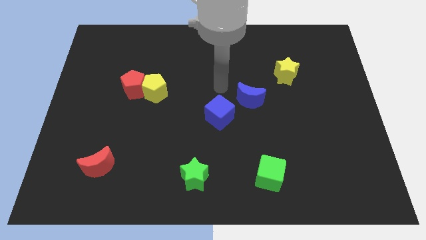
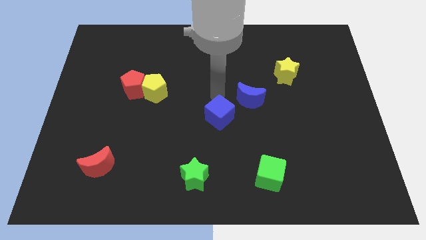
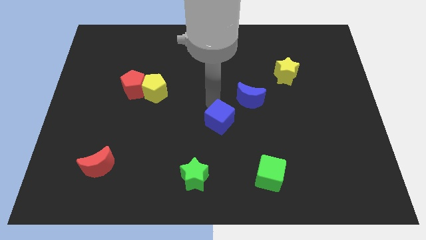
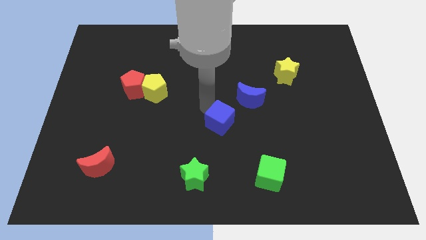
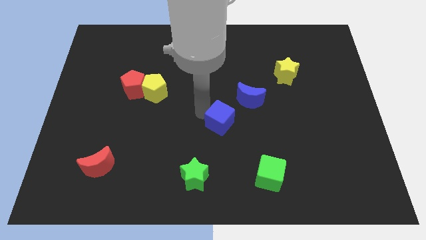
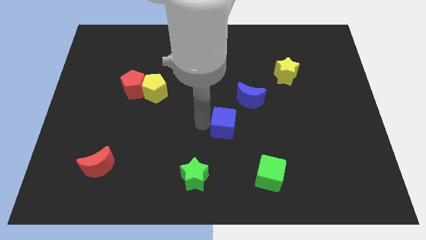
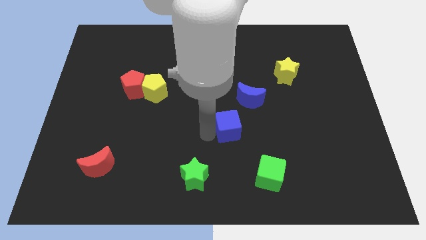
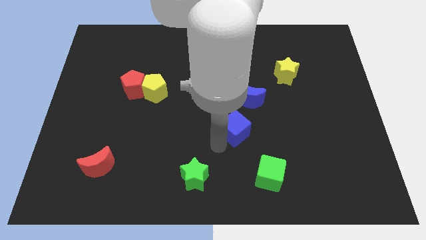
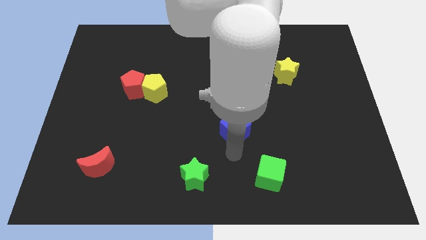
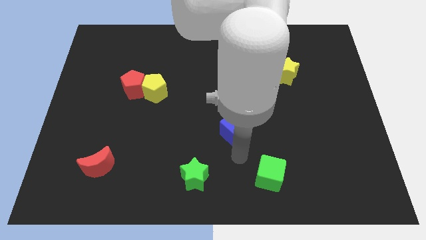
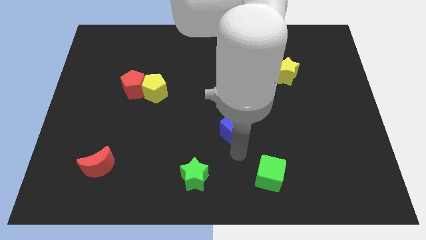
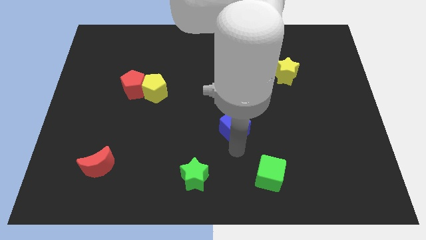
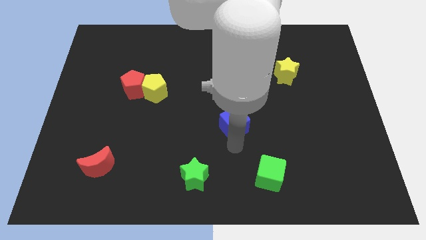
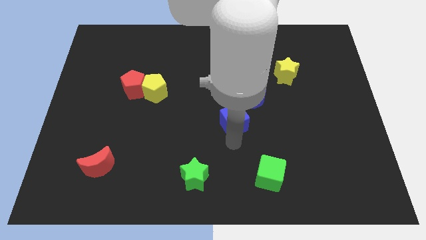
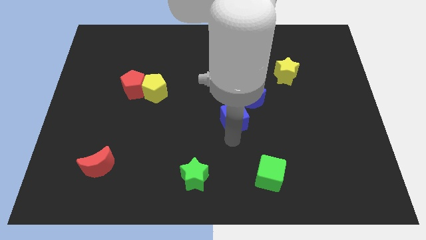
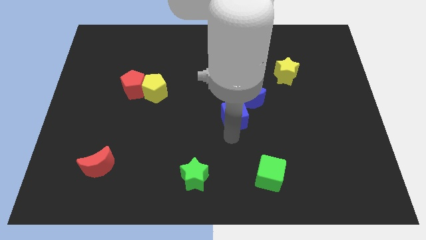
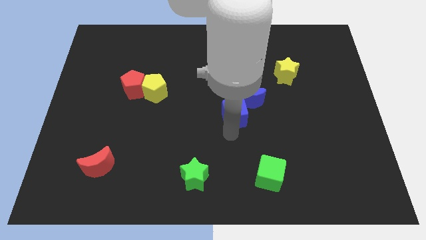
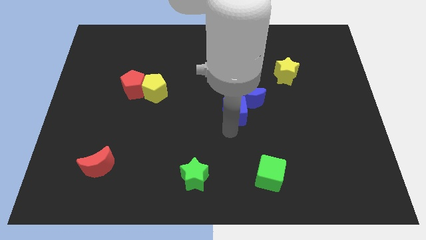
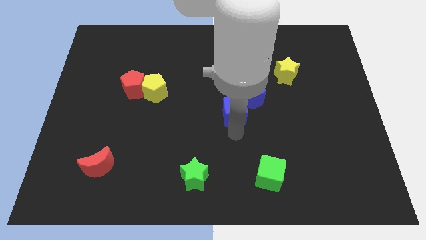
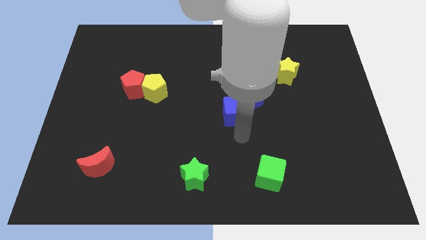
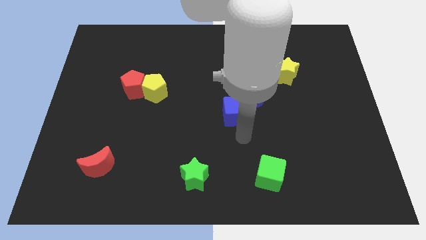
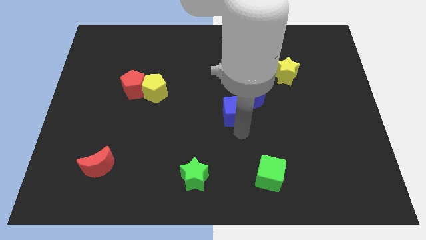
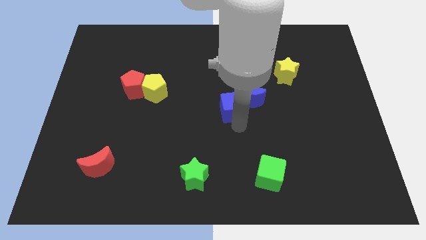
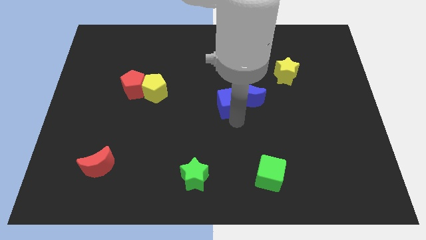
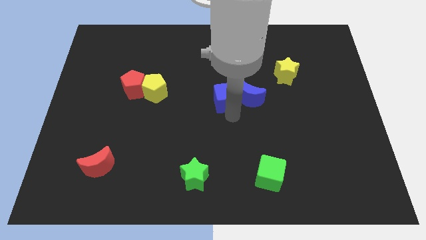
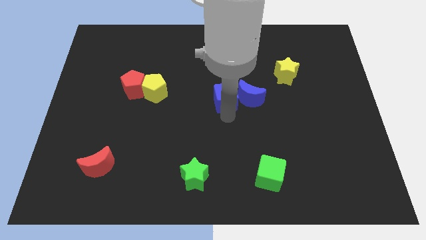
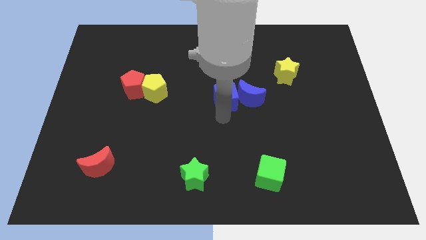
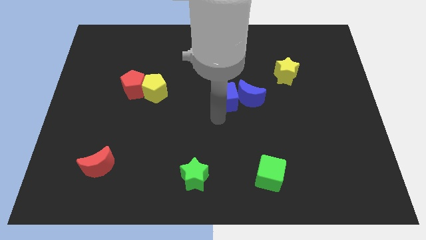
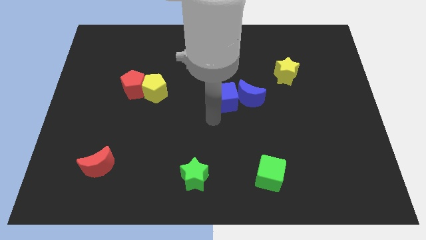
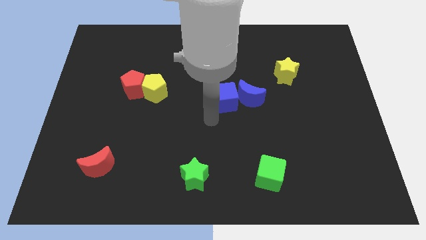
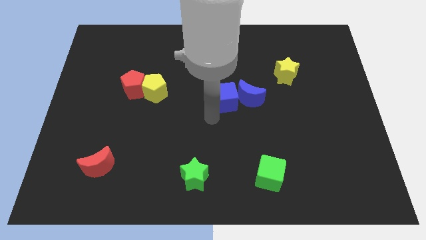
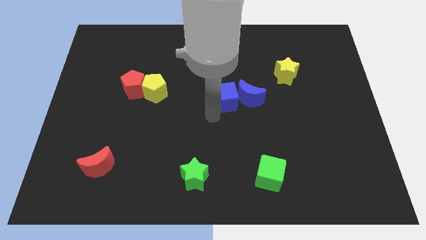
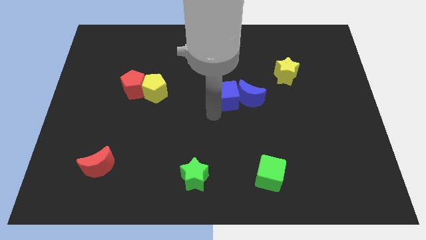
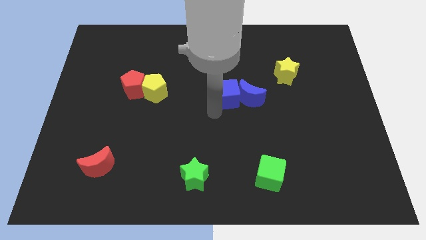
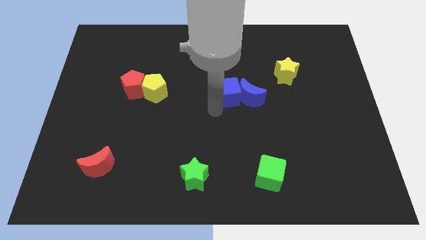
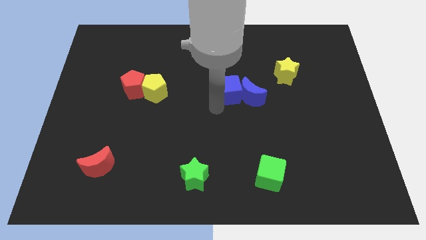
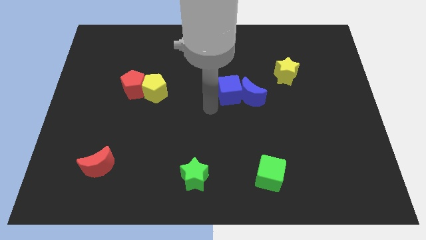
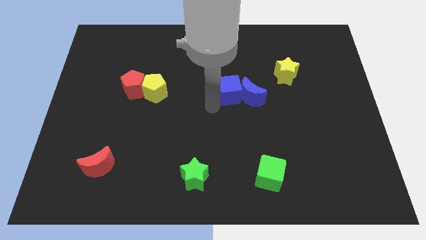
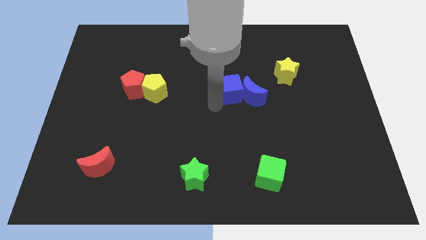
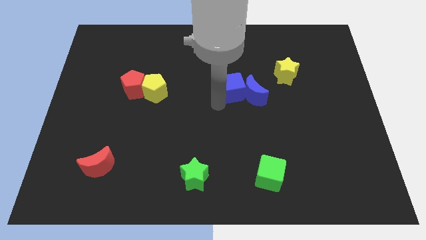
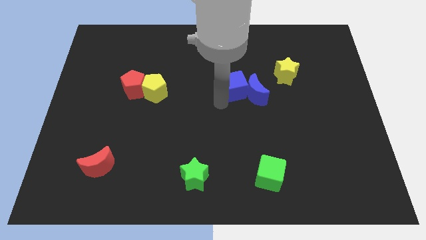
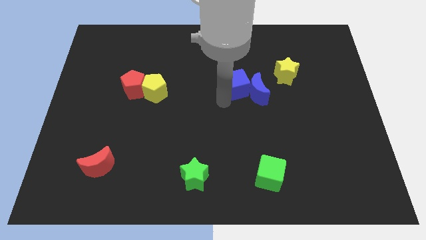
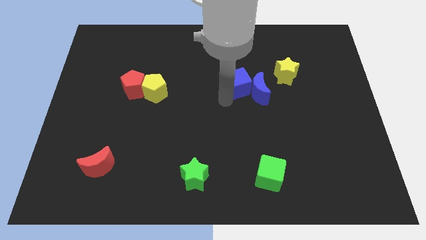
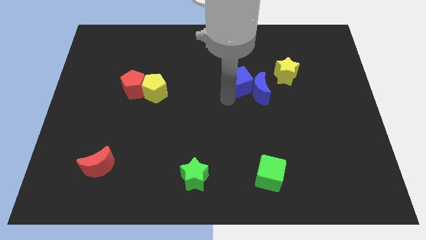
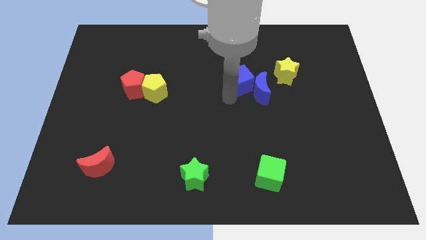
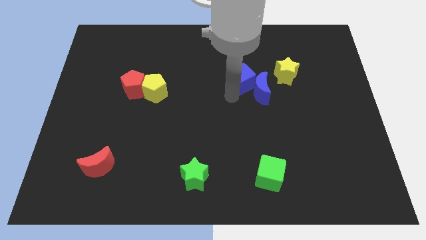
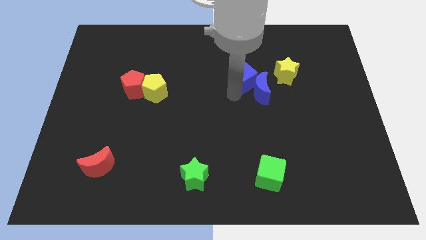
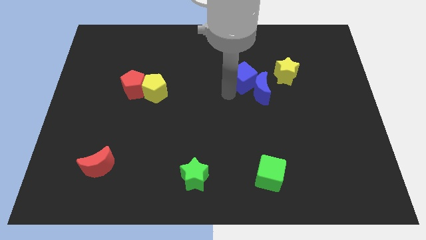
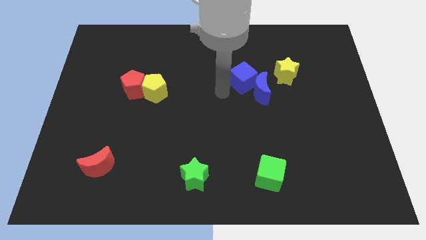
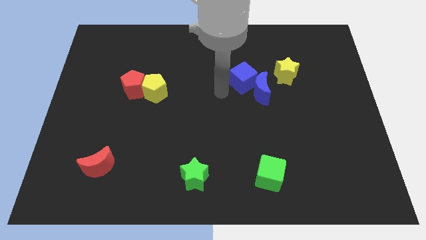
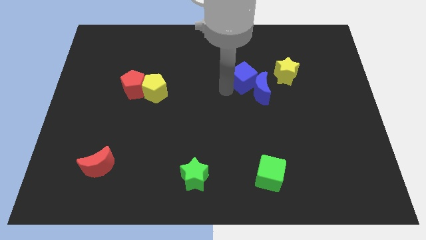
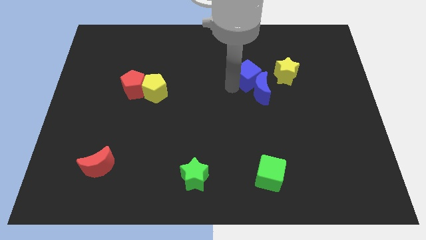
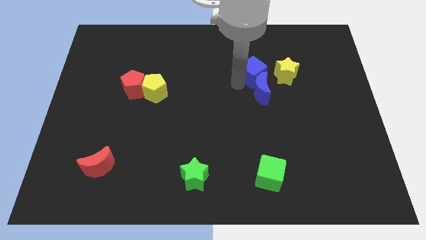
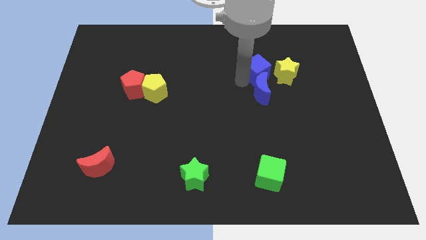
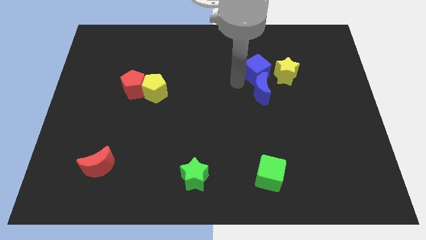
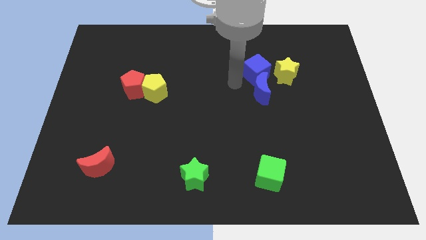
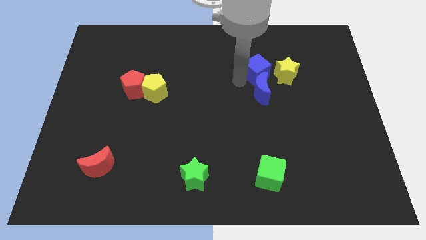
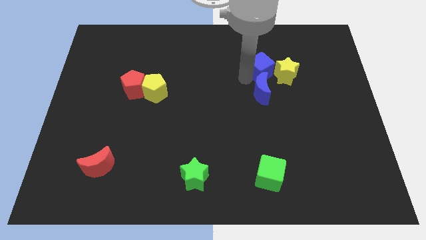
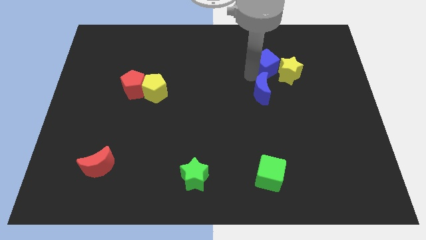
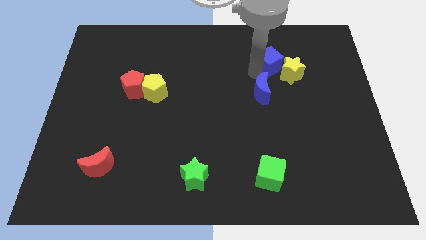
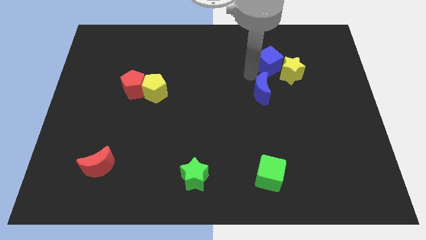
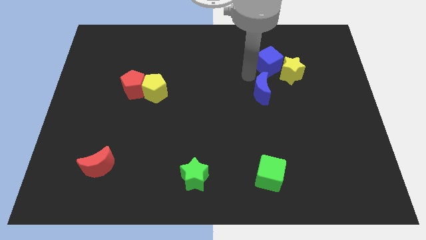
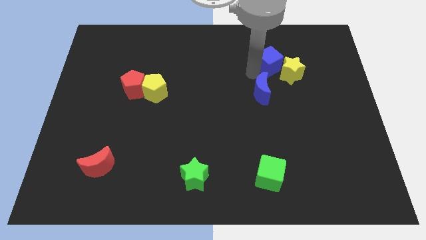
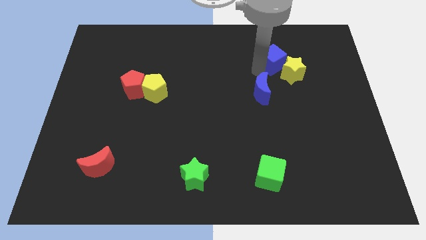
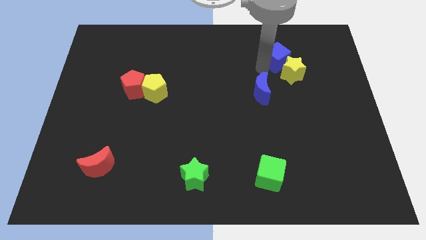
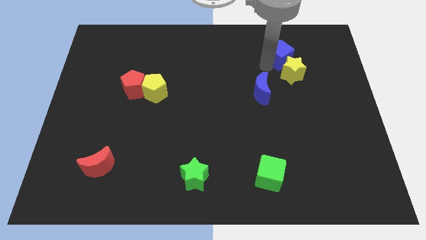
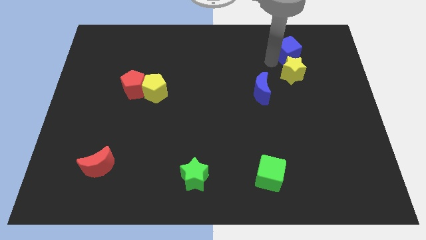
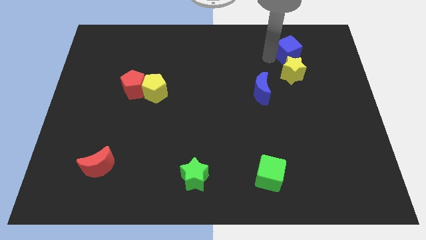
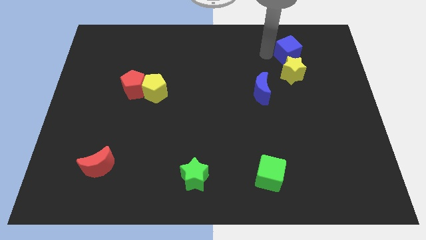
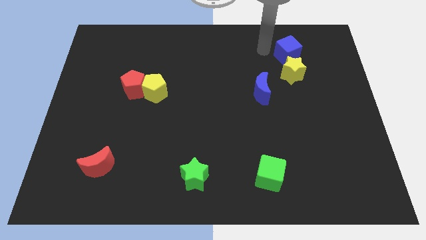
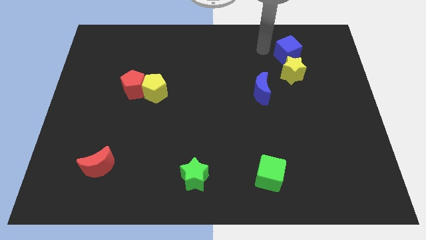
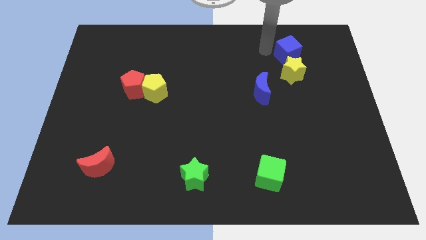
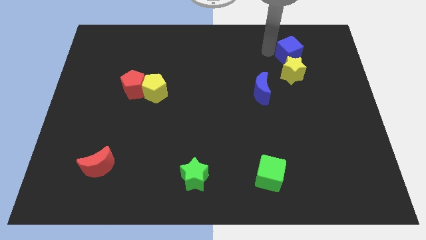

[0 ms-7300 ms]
slide the blue cube diagonally up and to the right of the yellow star
